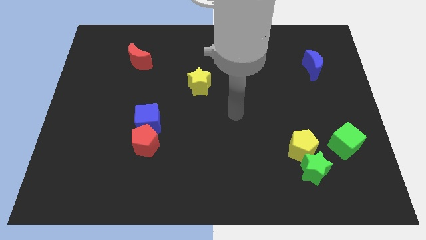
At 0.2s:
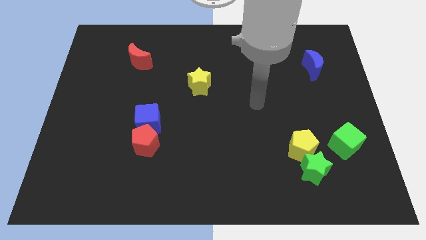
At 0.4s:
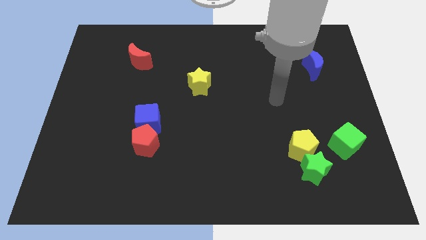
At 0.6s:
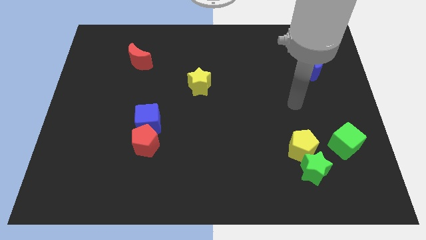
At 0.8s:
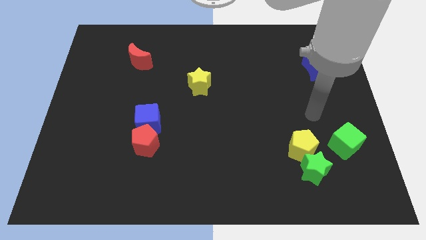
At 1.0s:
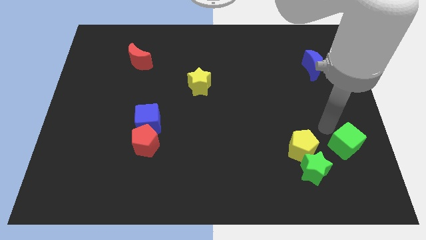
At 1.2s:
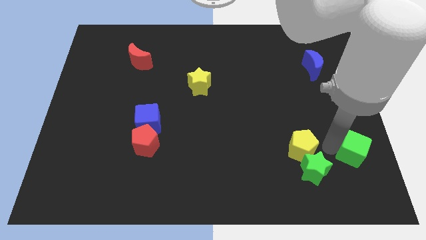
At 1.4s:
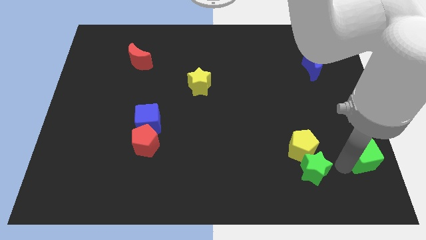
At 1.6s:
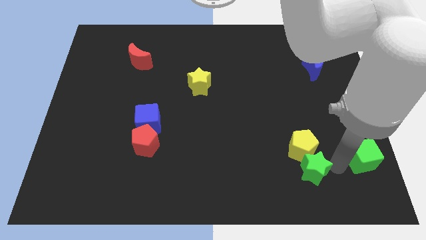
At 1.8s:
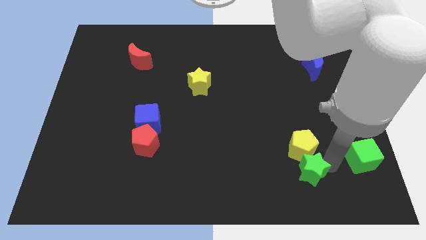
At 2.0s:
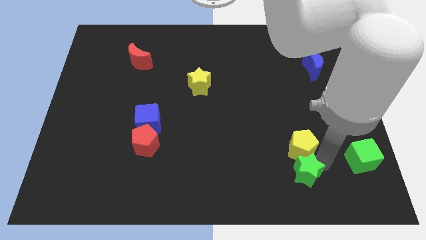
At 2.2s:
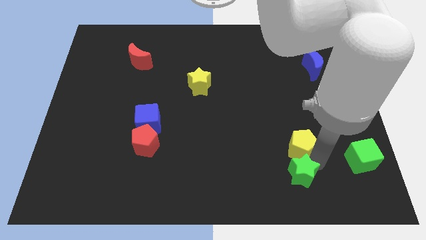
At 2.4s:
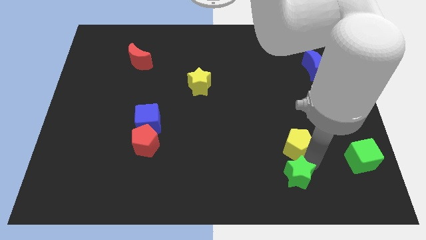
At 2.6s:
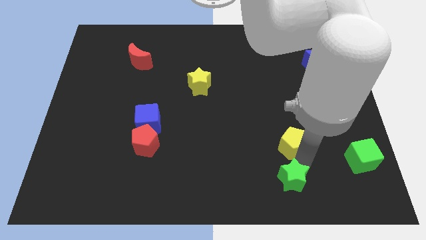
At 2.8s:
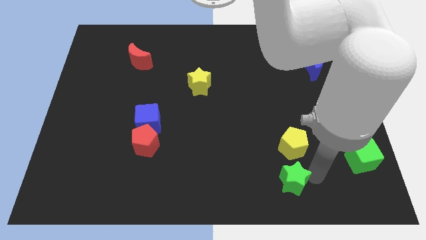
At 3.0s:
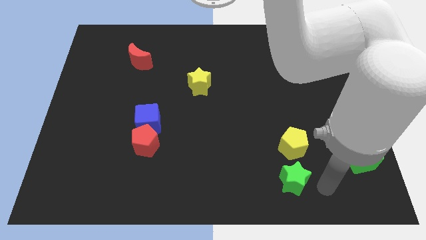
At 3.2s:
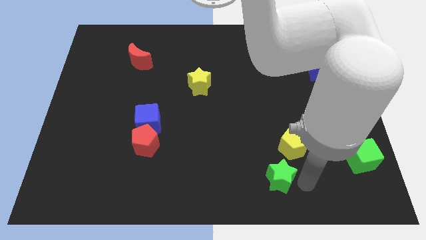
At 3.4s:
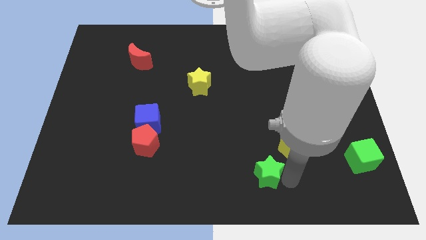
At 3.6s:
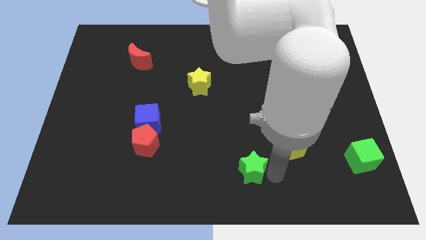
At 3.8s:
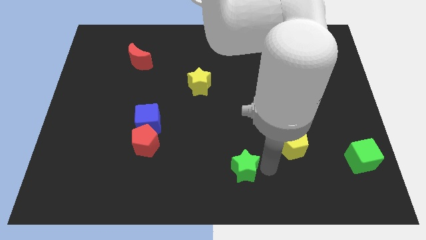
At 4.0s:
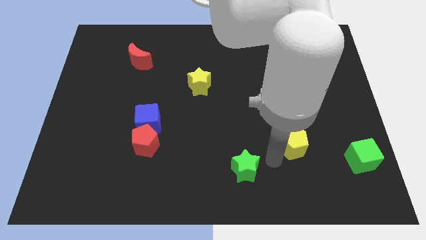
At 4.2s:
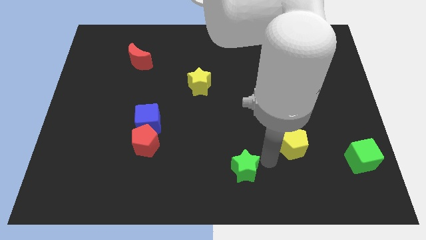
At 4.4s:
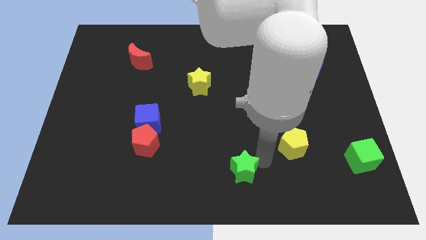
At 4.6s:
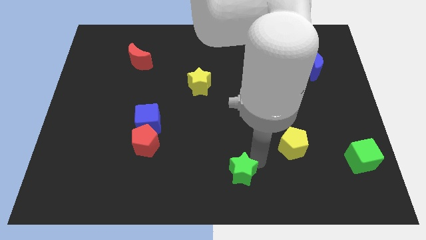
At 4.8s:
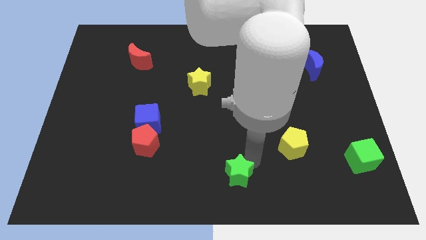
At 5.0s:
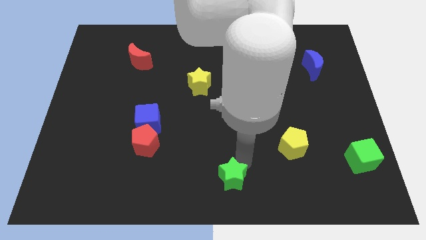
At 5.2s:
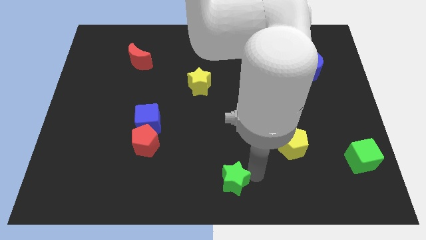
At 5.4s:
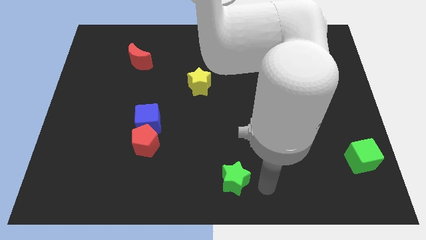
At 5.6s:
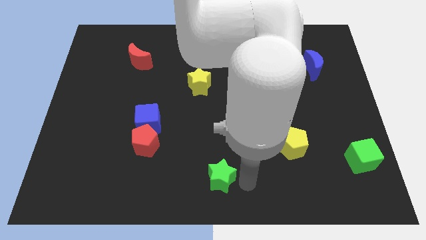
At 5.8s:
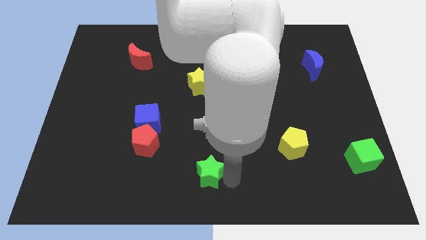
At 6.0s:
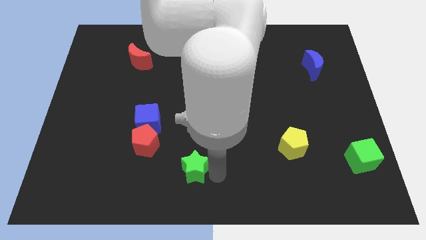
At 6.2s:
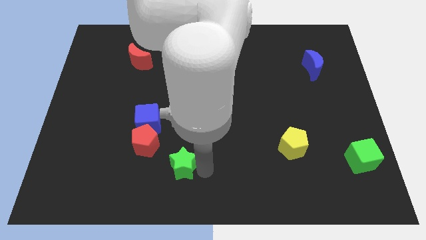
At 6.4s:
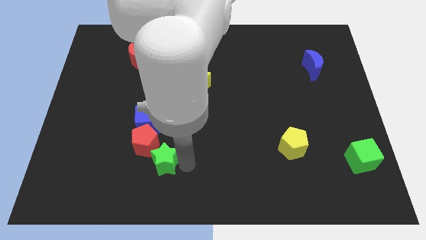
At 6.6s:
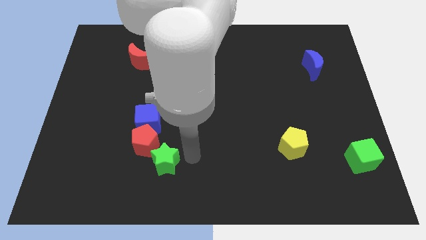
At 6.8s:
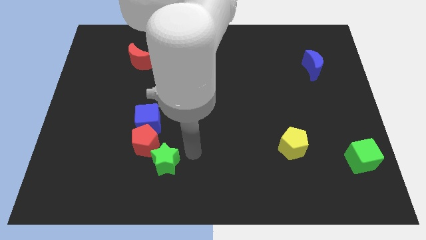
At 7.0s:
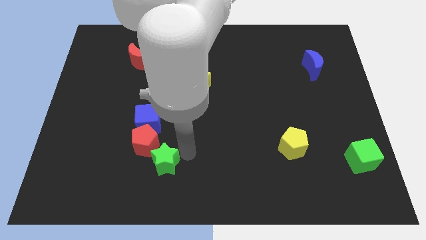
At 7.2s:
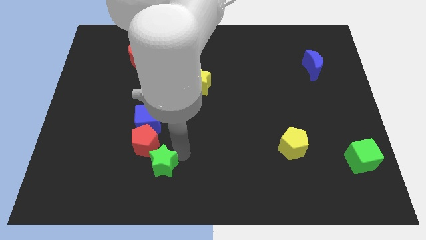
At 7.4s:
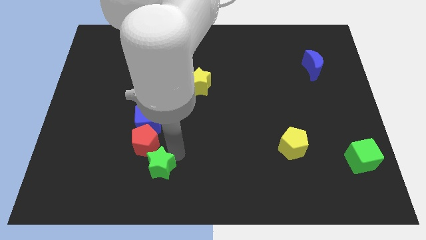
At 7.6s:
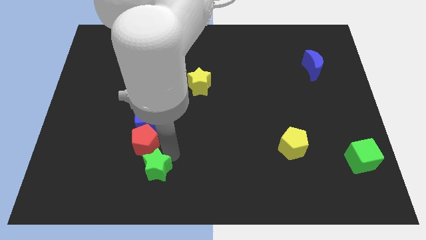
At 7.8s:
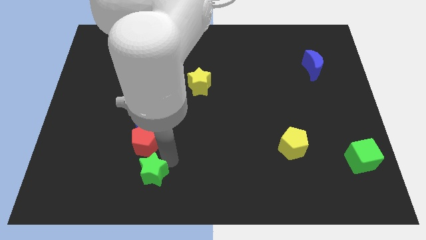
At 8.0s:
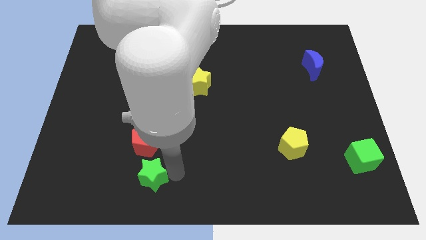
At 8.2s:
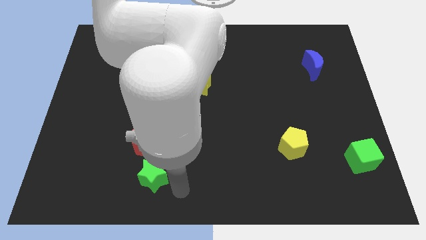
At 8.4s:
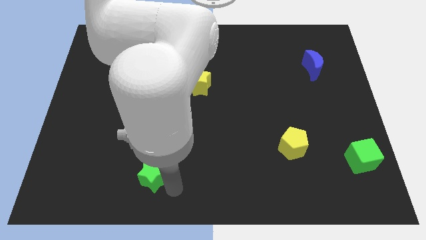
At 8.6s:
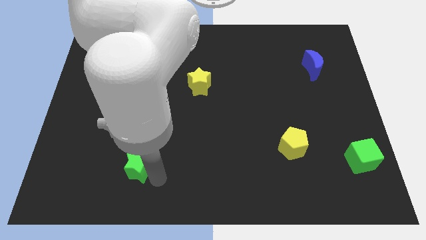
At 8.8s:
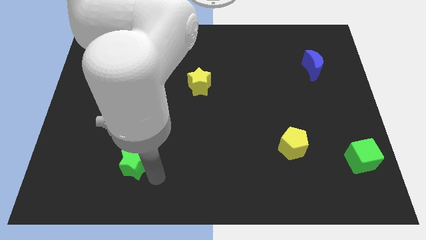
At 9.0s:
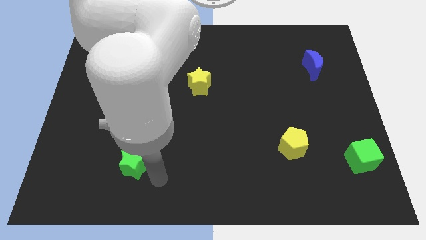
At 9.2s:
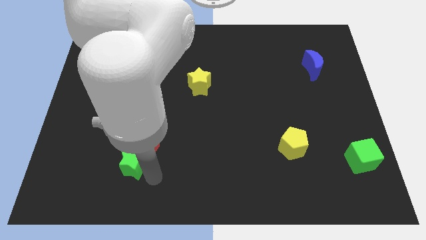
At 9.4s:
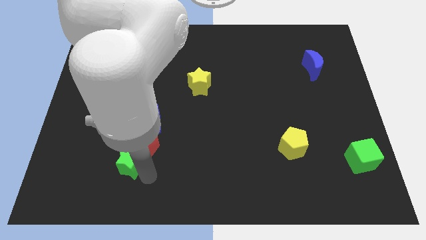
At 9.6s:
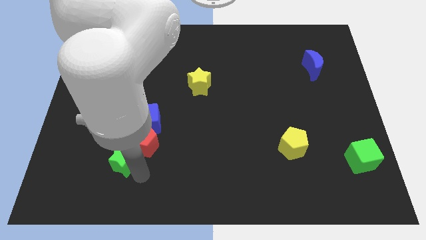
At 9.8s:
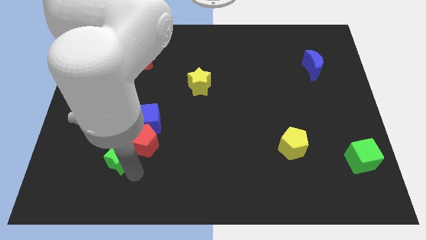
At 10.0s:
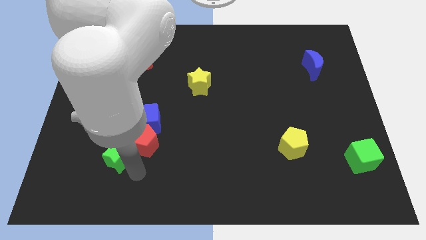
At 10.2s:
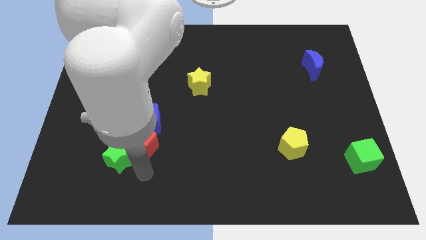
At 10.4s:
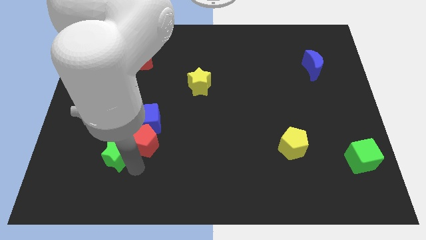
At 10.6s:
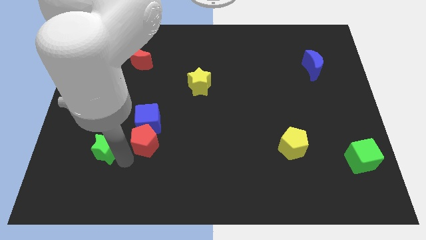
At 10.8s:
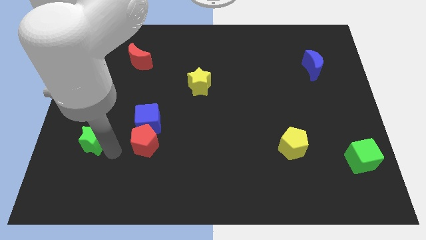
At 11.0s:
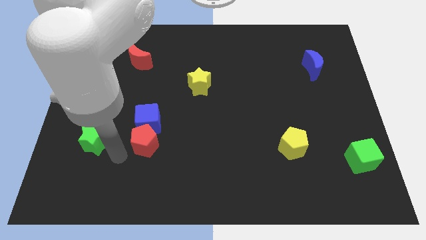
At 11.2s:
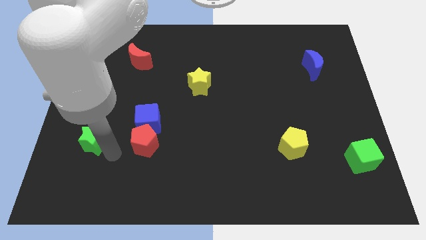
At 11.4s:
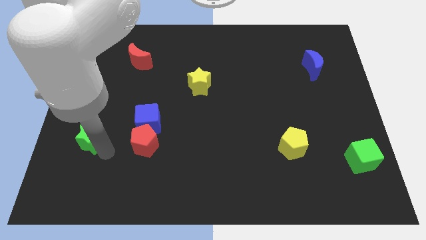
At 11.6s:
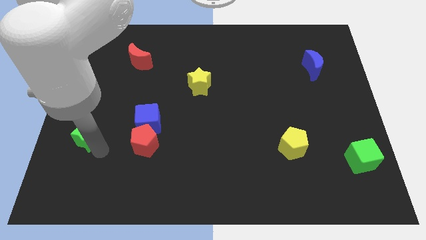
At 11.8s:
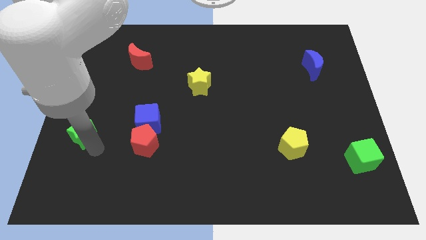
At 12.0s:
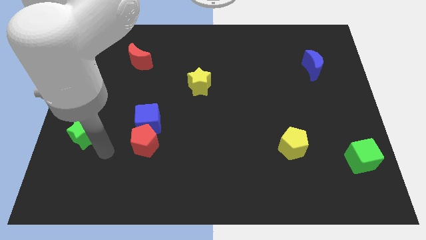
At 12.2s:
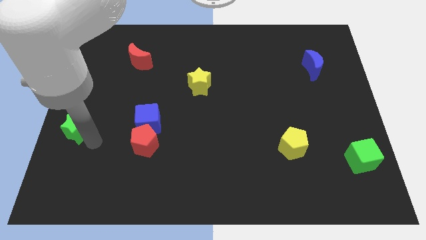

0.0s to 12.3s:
put the green star to the left side of the board

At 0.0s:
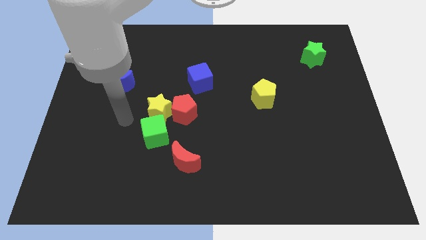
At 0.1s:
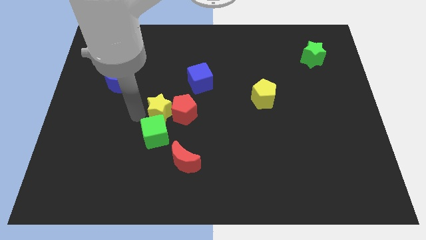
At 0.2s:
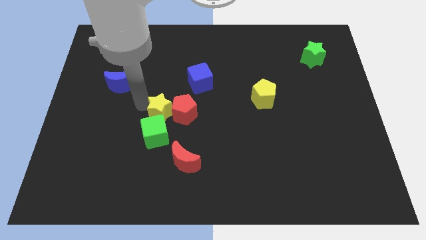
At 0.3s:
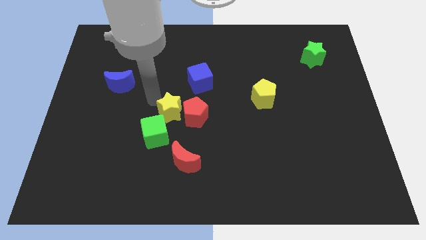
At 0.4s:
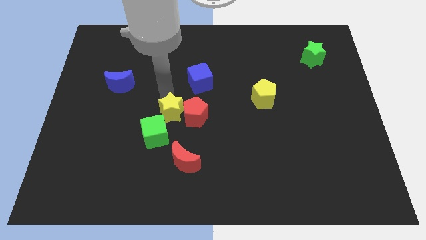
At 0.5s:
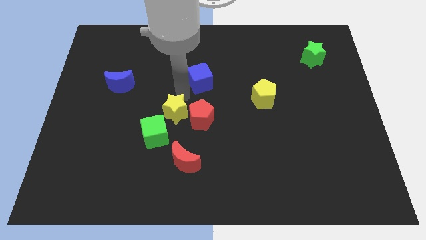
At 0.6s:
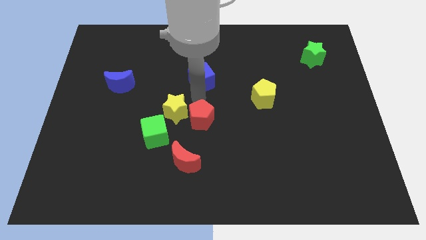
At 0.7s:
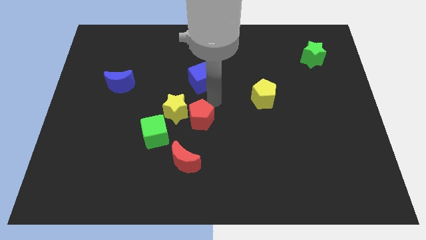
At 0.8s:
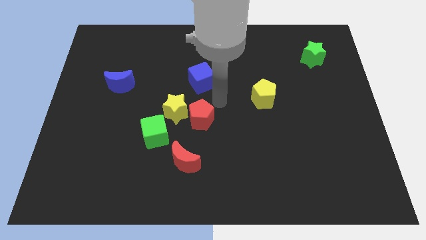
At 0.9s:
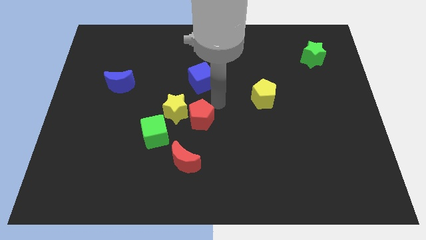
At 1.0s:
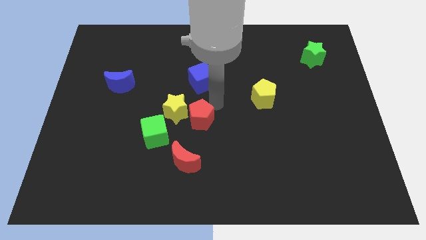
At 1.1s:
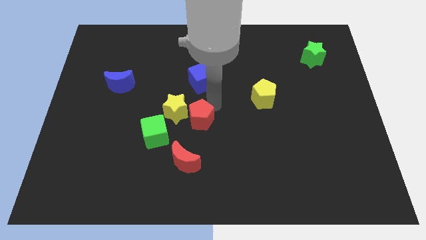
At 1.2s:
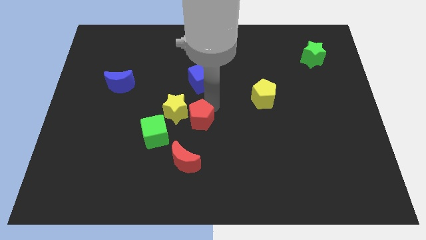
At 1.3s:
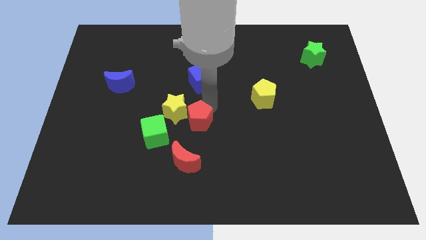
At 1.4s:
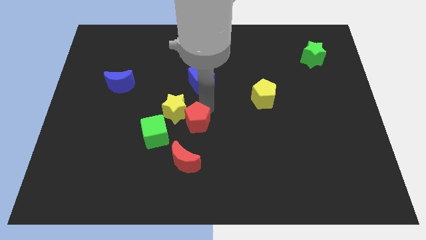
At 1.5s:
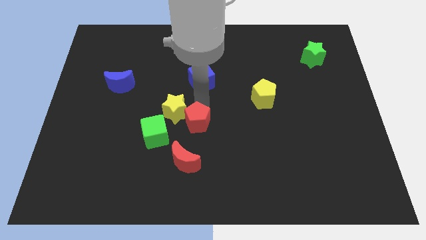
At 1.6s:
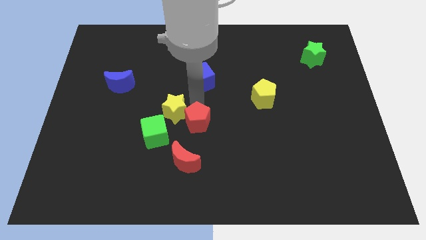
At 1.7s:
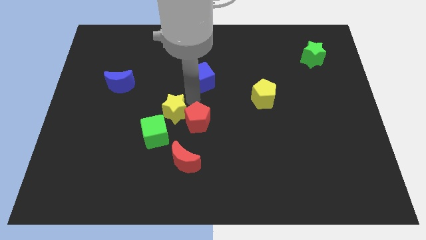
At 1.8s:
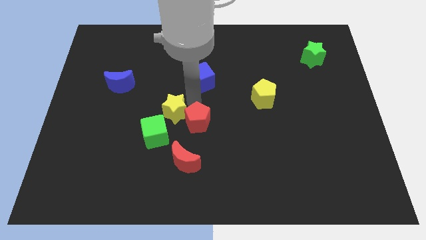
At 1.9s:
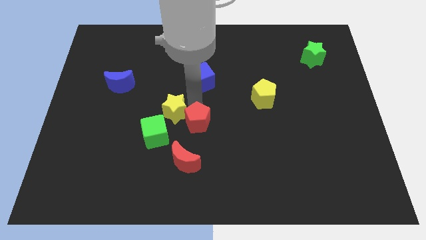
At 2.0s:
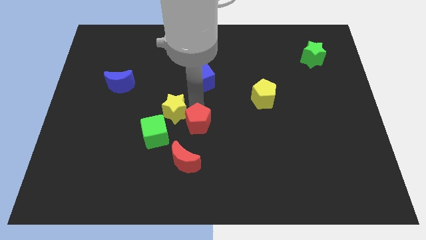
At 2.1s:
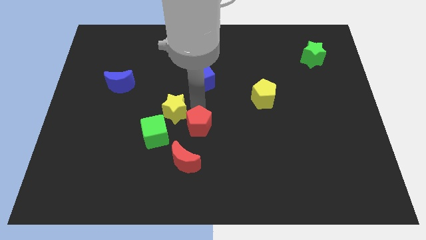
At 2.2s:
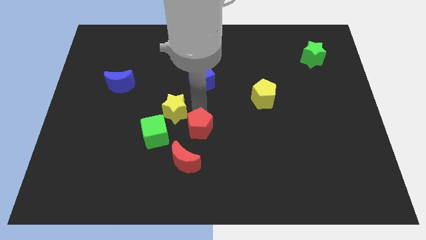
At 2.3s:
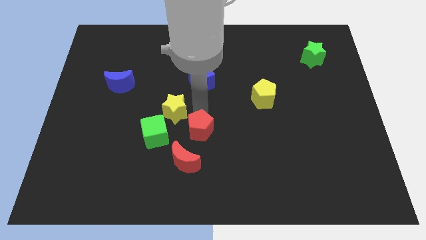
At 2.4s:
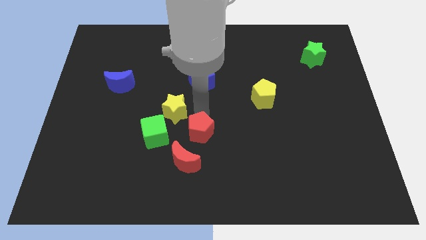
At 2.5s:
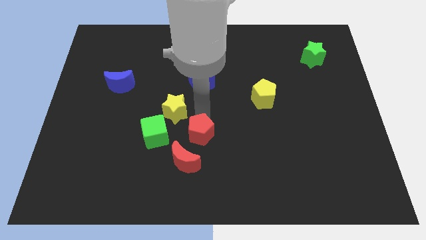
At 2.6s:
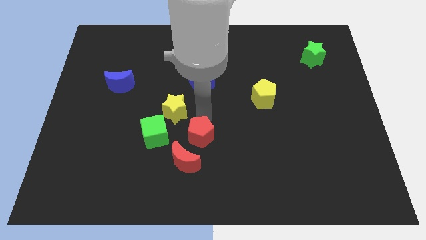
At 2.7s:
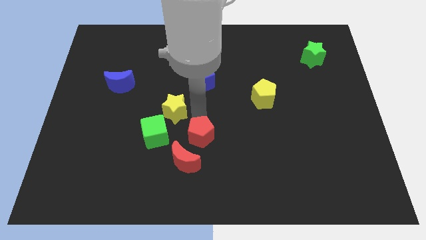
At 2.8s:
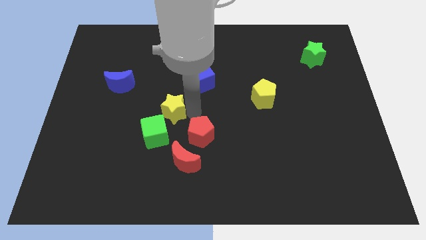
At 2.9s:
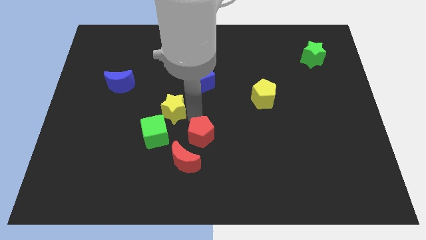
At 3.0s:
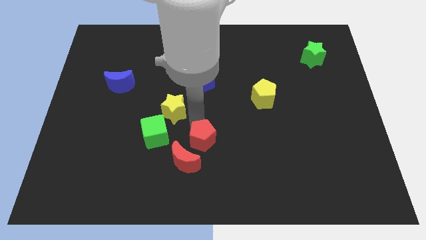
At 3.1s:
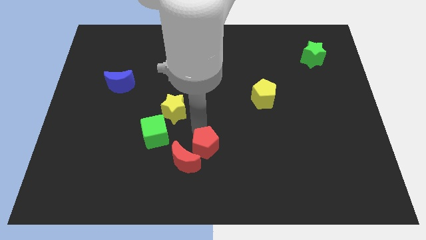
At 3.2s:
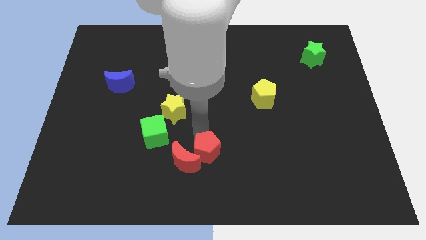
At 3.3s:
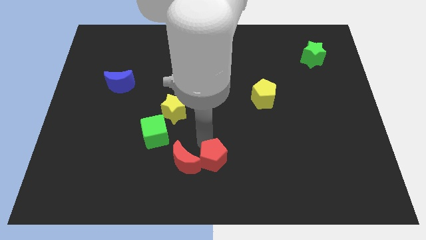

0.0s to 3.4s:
move the red pentagon to the bottom
